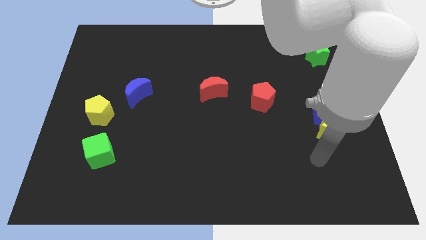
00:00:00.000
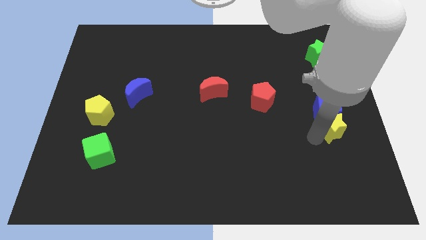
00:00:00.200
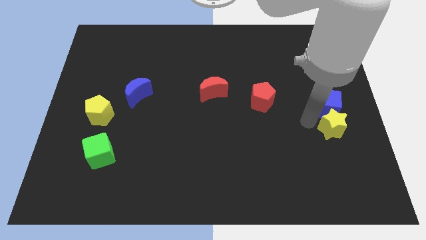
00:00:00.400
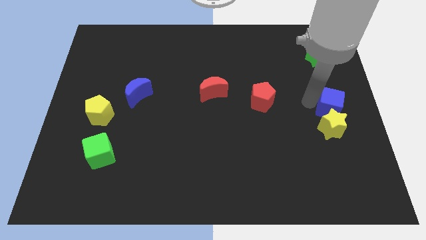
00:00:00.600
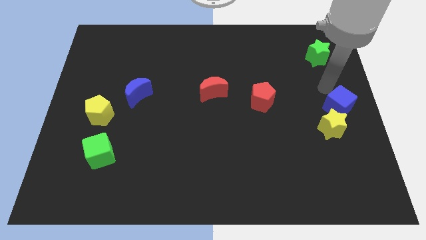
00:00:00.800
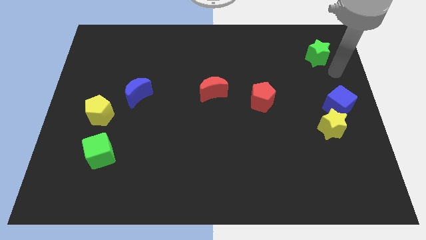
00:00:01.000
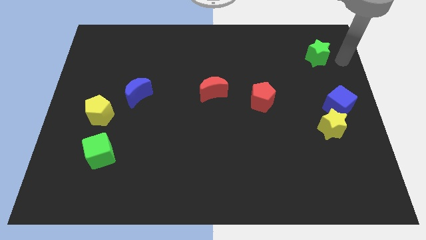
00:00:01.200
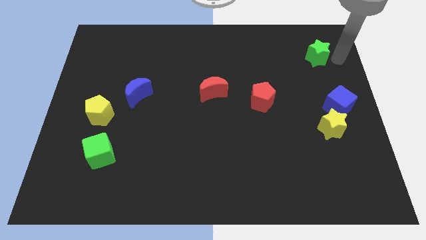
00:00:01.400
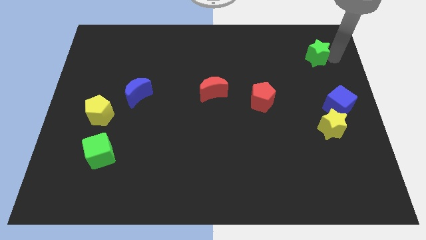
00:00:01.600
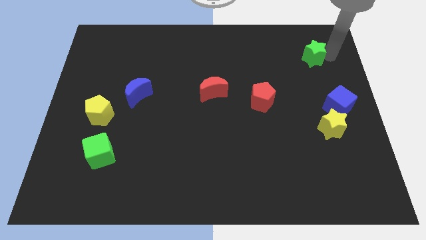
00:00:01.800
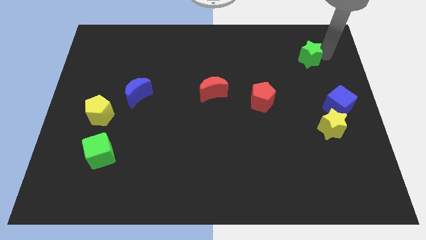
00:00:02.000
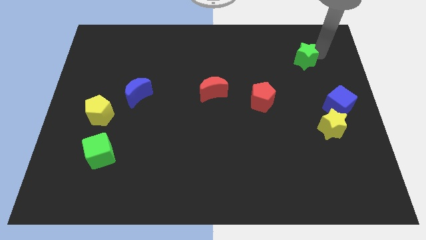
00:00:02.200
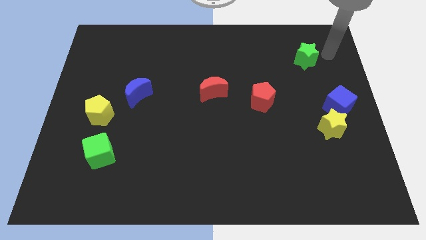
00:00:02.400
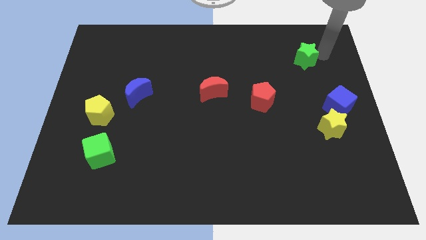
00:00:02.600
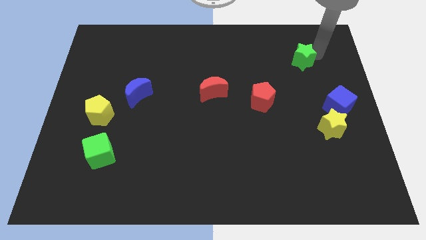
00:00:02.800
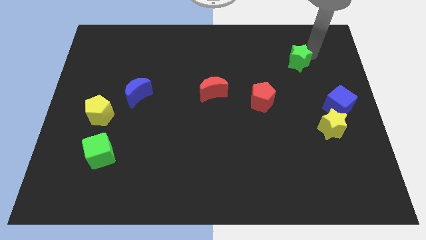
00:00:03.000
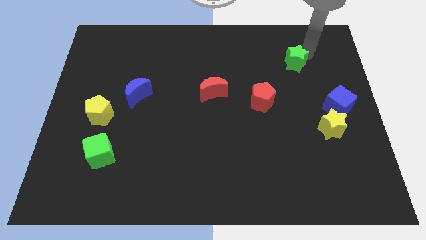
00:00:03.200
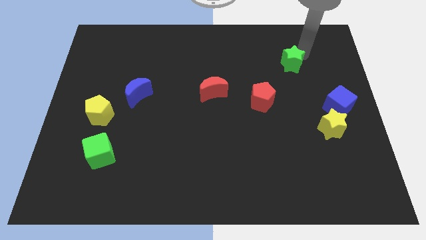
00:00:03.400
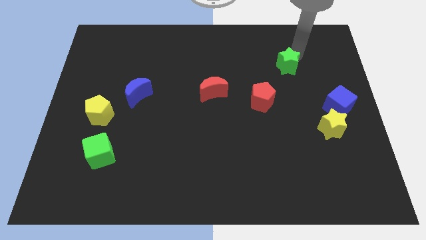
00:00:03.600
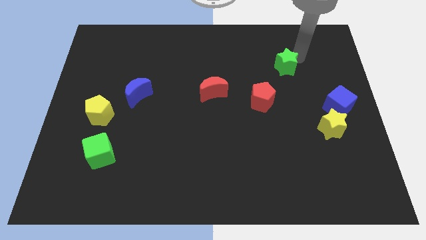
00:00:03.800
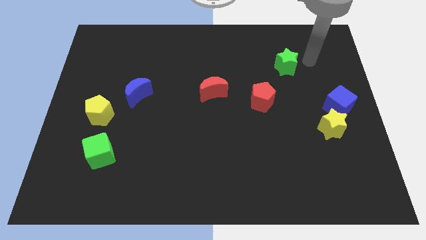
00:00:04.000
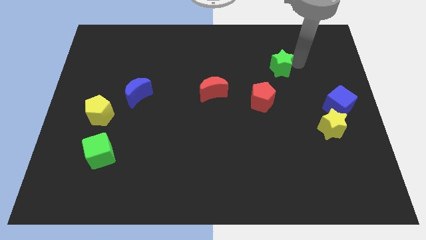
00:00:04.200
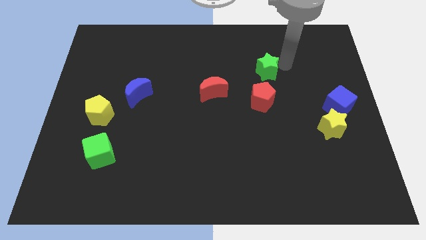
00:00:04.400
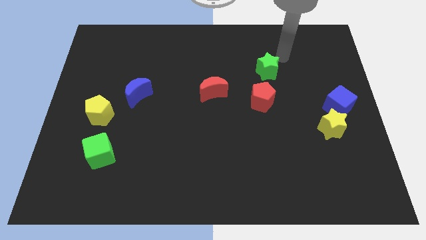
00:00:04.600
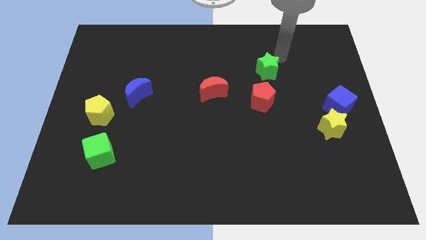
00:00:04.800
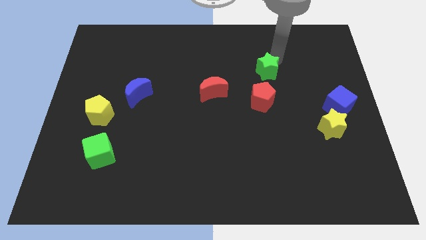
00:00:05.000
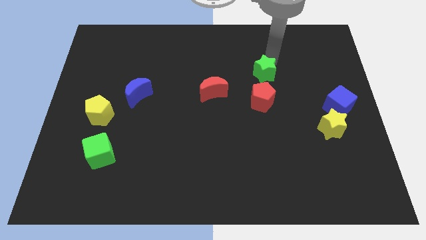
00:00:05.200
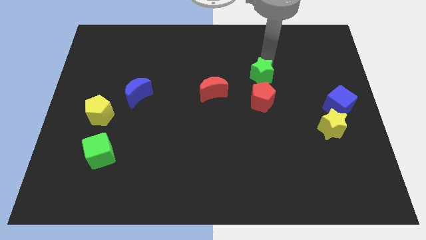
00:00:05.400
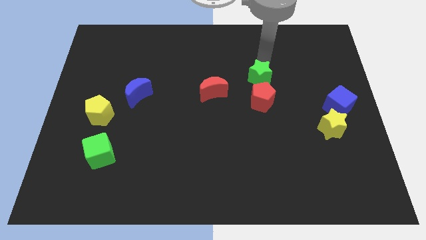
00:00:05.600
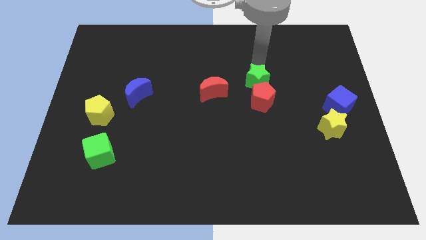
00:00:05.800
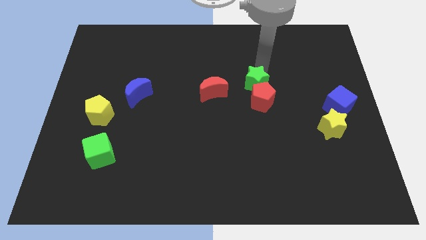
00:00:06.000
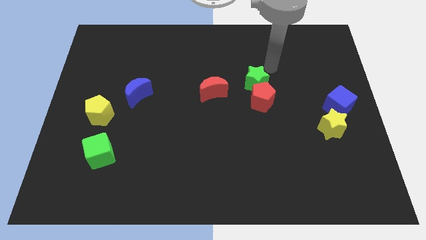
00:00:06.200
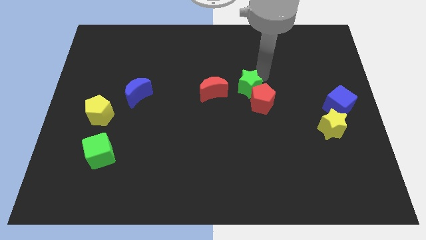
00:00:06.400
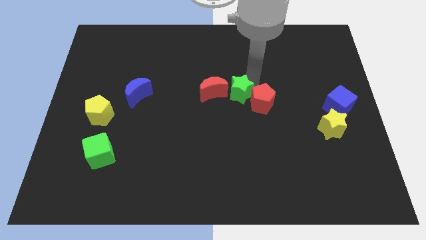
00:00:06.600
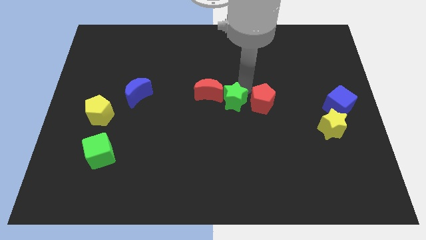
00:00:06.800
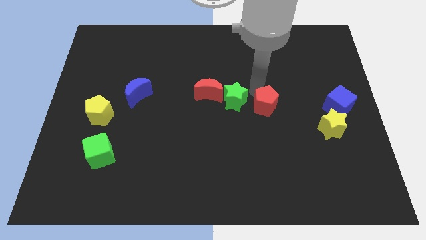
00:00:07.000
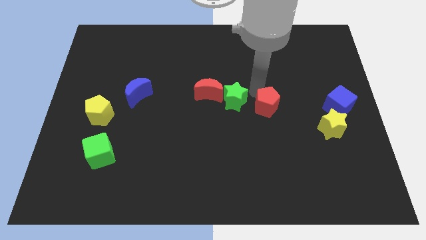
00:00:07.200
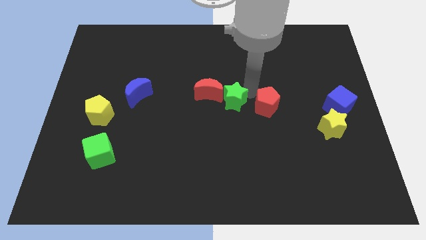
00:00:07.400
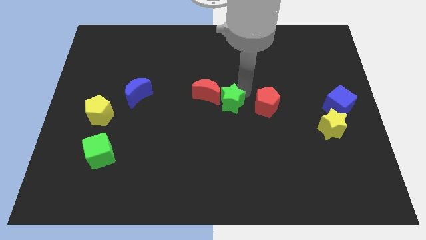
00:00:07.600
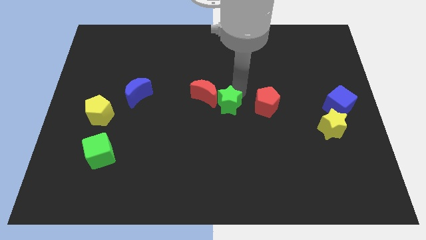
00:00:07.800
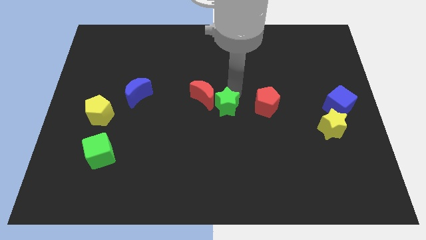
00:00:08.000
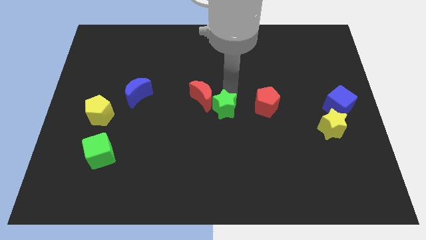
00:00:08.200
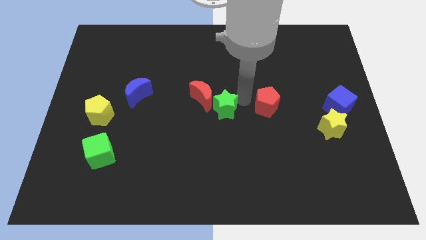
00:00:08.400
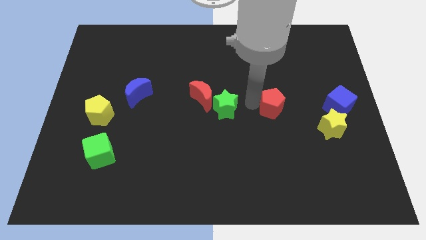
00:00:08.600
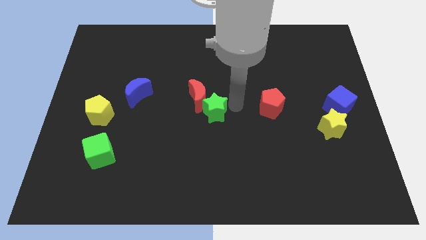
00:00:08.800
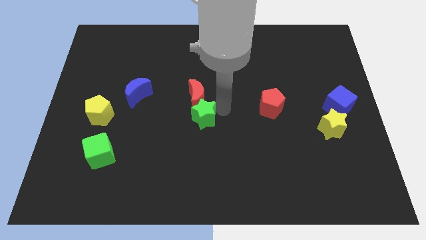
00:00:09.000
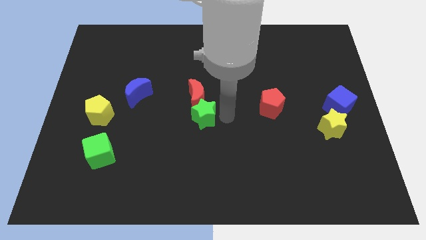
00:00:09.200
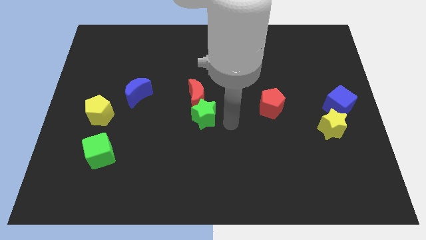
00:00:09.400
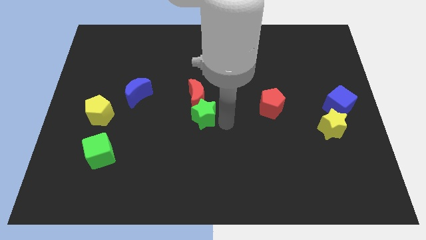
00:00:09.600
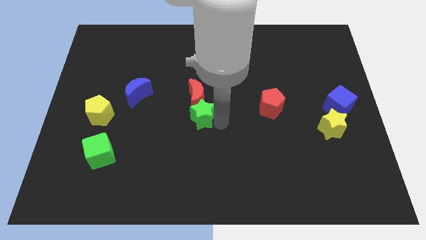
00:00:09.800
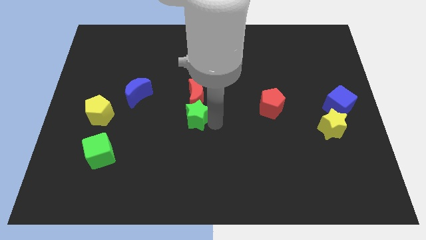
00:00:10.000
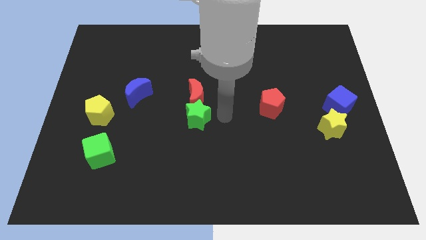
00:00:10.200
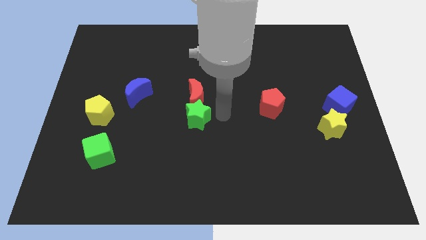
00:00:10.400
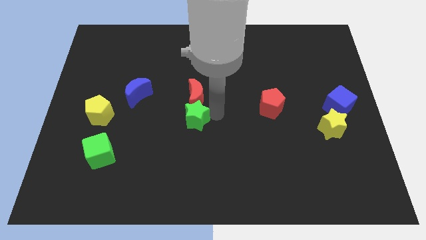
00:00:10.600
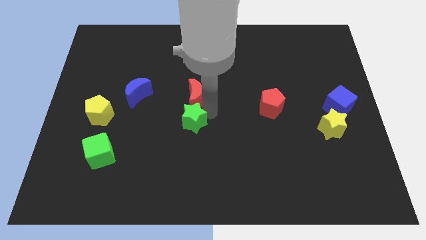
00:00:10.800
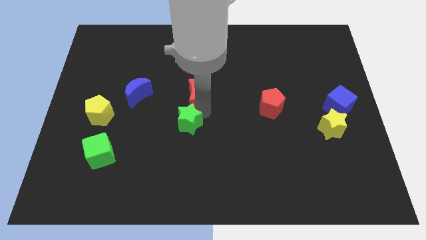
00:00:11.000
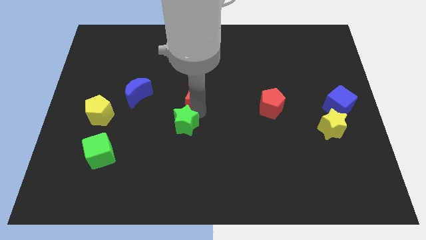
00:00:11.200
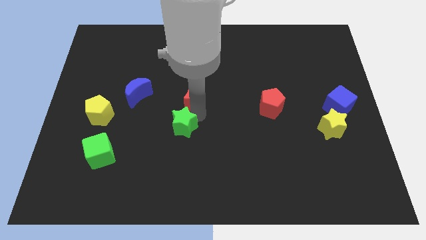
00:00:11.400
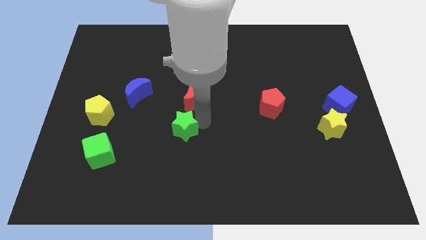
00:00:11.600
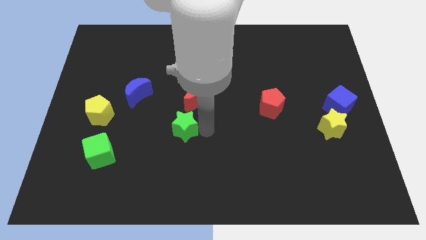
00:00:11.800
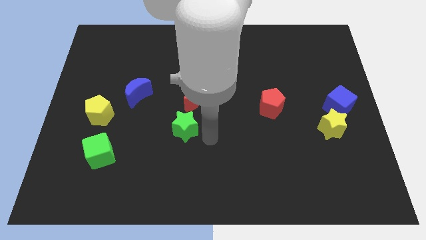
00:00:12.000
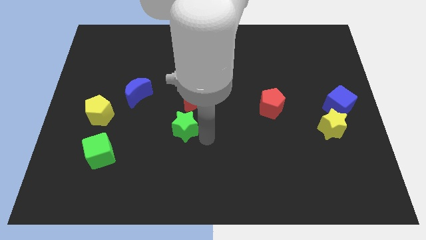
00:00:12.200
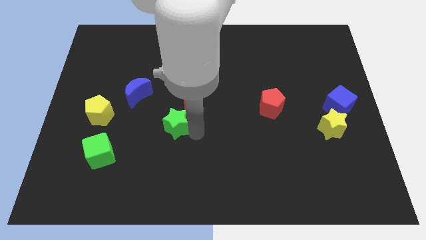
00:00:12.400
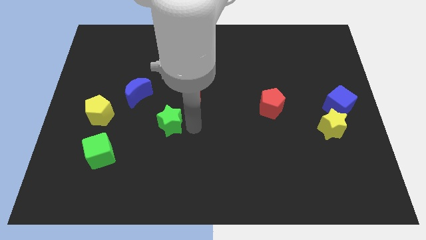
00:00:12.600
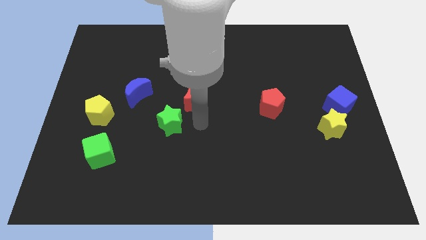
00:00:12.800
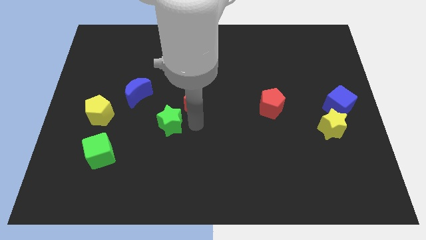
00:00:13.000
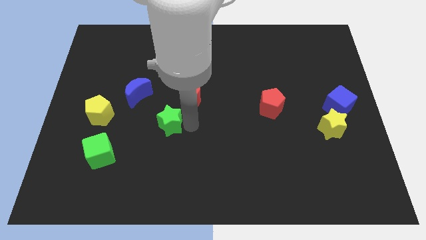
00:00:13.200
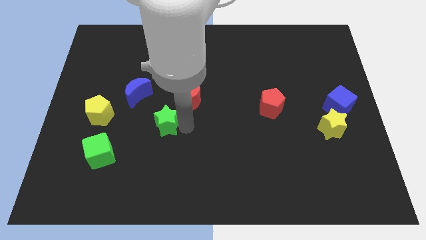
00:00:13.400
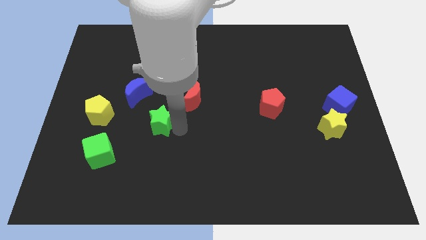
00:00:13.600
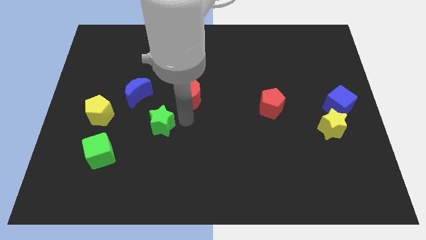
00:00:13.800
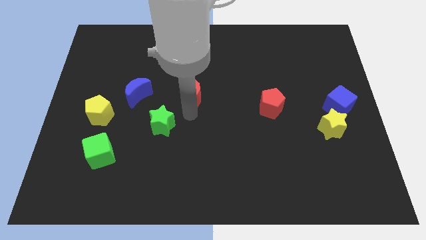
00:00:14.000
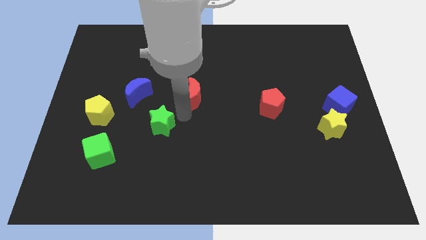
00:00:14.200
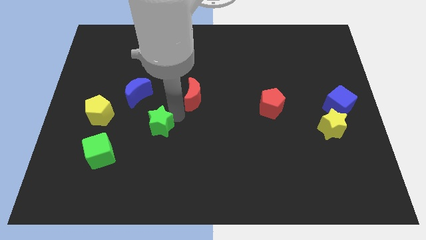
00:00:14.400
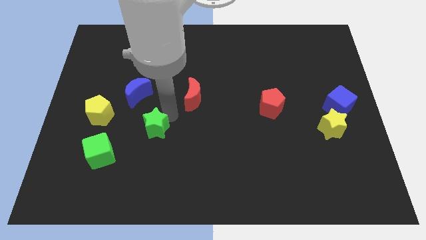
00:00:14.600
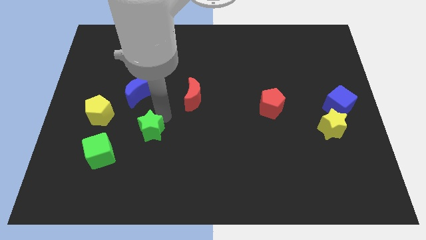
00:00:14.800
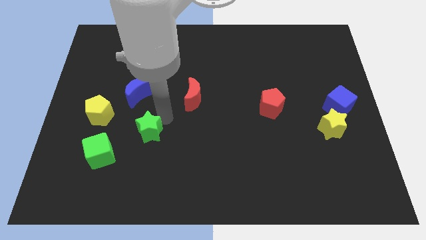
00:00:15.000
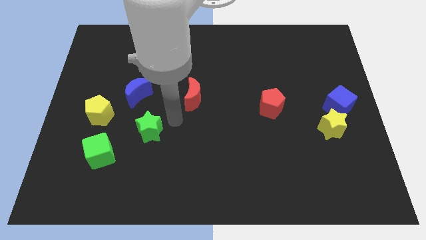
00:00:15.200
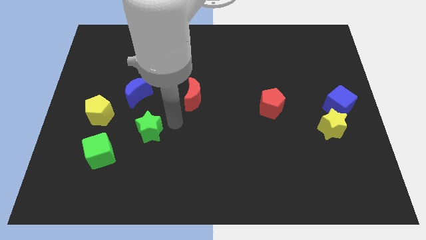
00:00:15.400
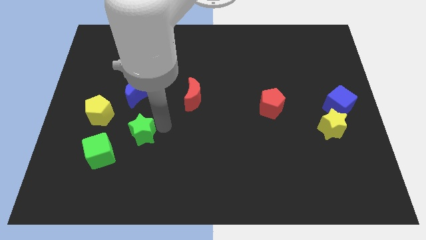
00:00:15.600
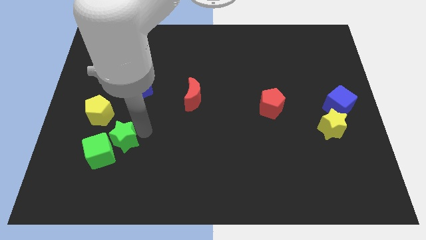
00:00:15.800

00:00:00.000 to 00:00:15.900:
put the green star towards the green cube
